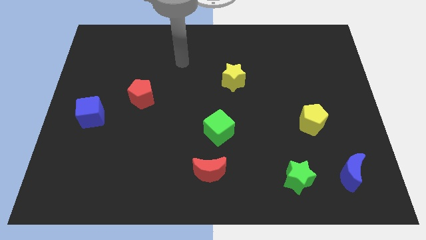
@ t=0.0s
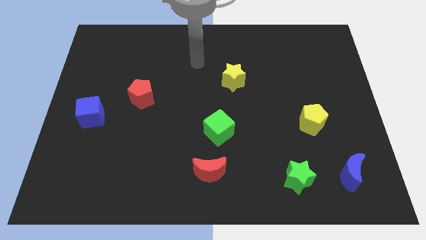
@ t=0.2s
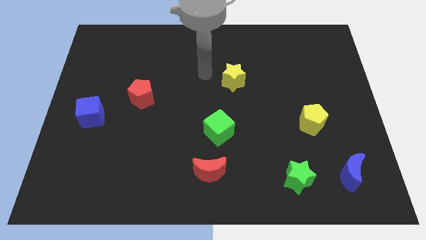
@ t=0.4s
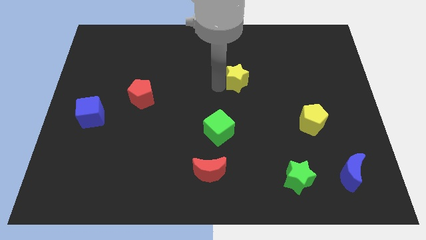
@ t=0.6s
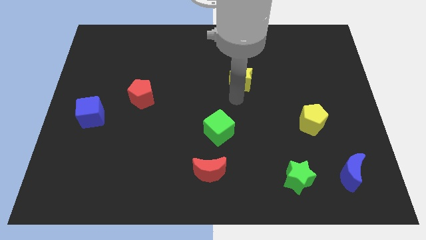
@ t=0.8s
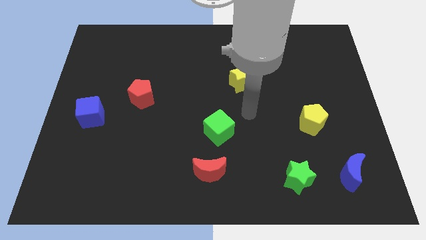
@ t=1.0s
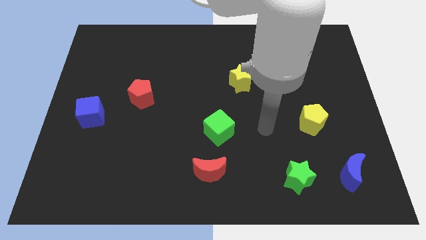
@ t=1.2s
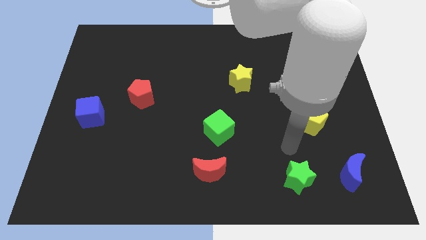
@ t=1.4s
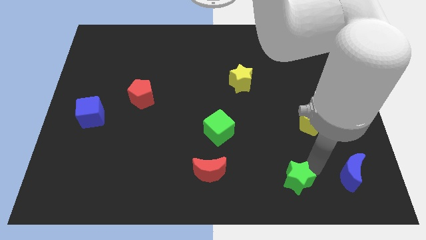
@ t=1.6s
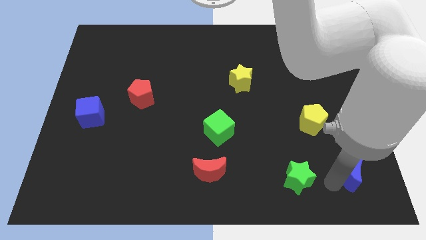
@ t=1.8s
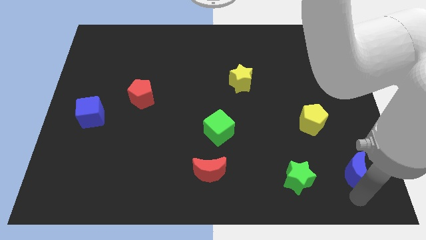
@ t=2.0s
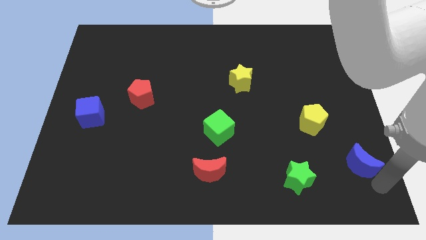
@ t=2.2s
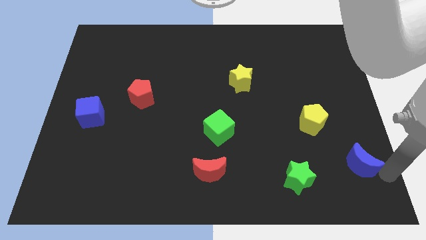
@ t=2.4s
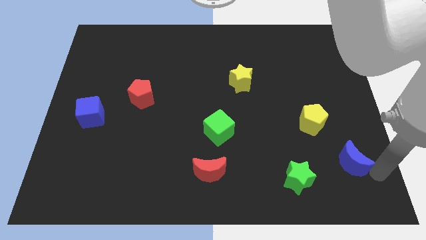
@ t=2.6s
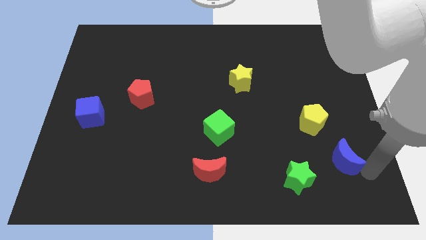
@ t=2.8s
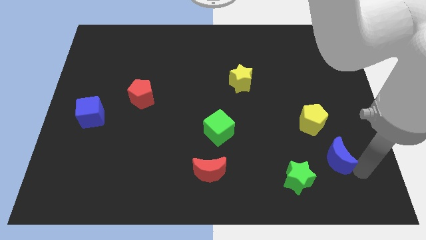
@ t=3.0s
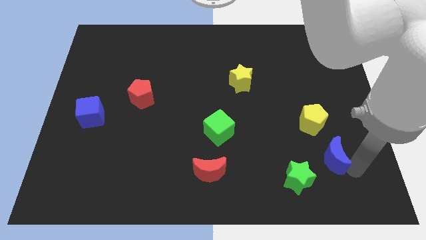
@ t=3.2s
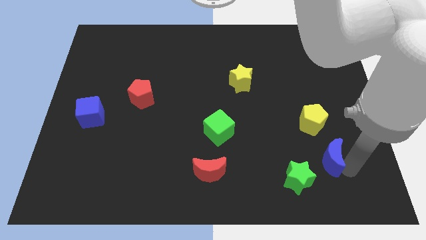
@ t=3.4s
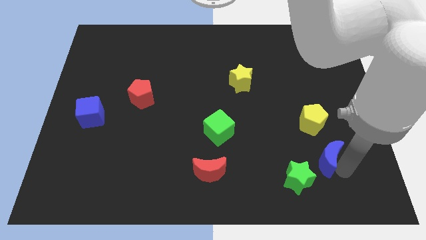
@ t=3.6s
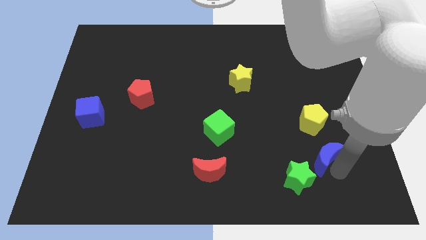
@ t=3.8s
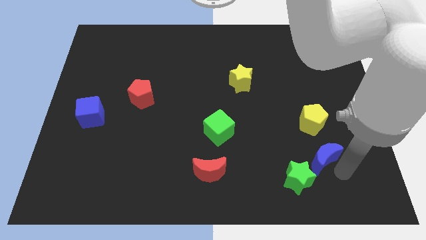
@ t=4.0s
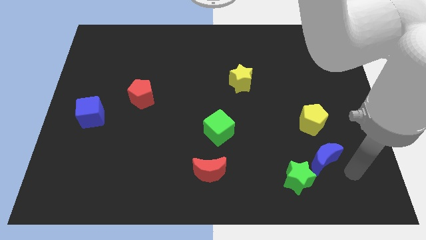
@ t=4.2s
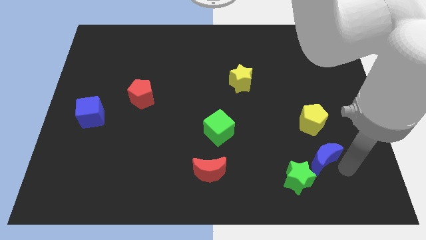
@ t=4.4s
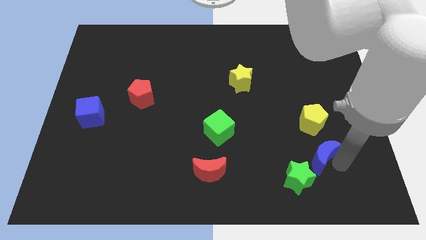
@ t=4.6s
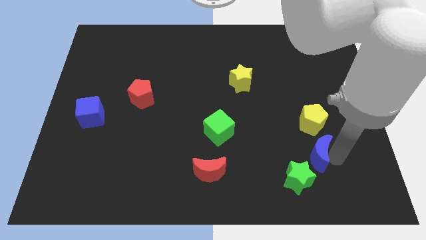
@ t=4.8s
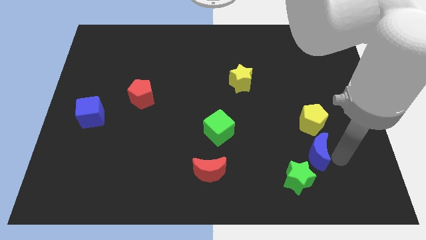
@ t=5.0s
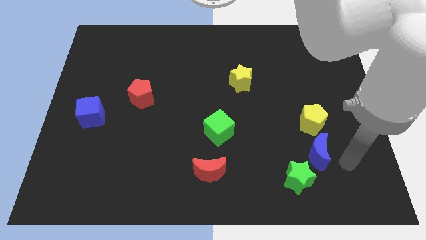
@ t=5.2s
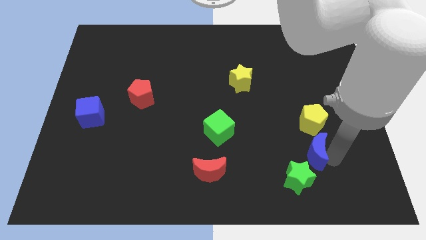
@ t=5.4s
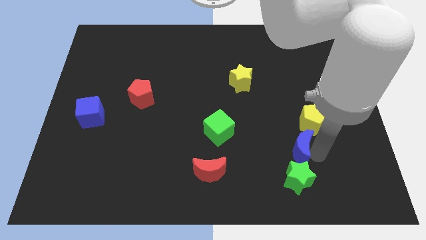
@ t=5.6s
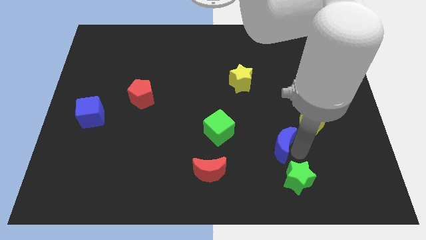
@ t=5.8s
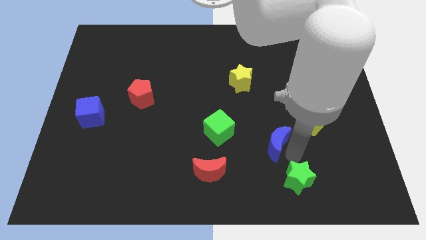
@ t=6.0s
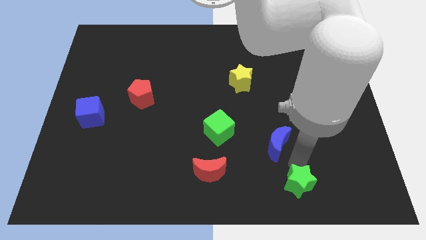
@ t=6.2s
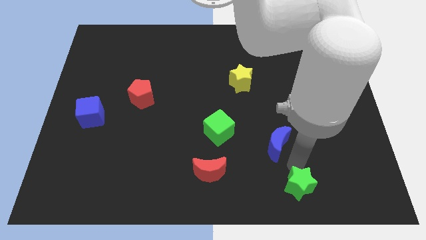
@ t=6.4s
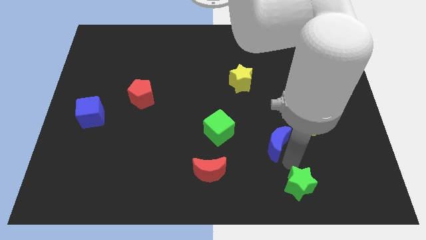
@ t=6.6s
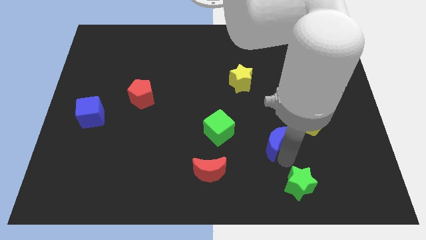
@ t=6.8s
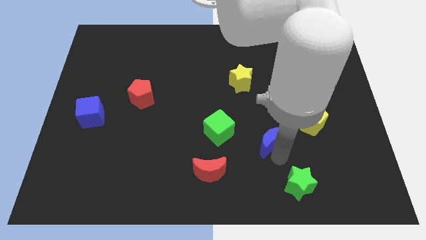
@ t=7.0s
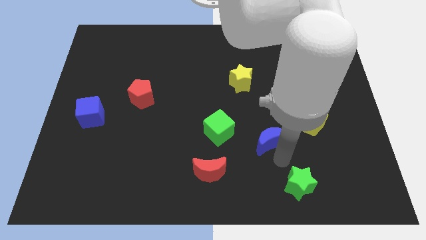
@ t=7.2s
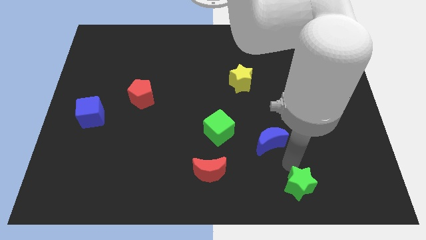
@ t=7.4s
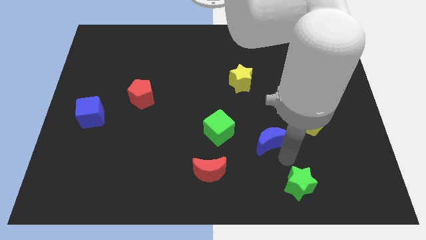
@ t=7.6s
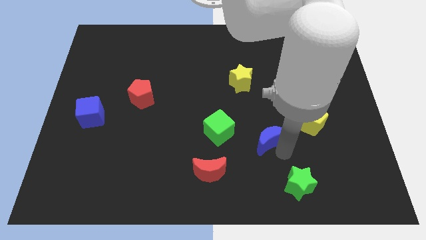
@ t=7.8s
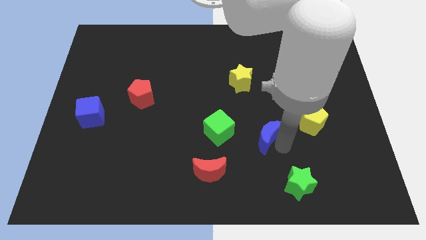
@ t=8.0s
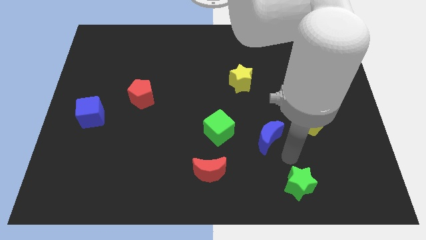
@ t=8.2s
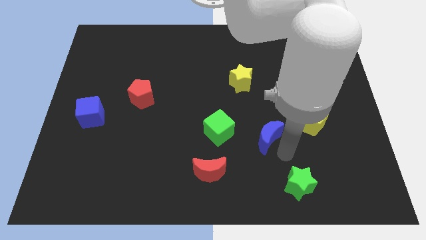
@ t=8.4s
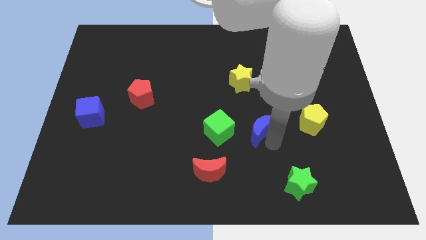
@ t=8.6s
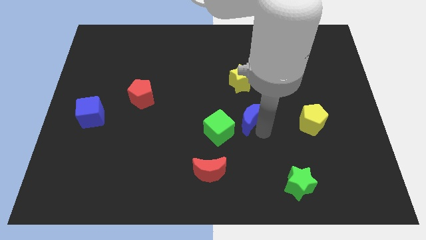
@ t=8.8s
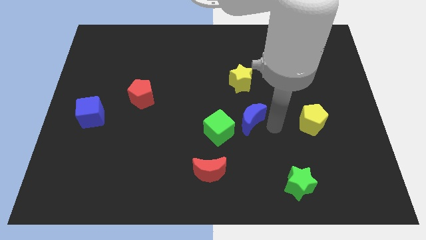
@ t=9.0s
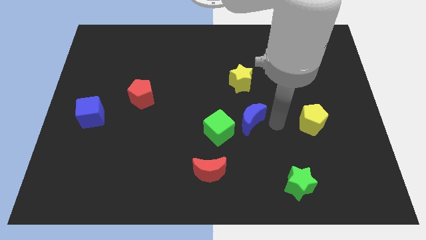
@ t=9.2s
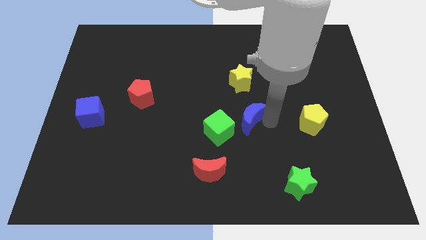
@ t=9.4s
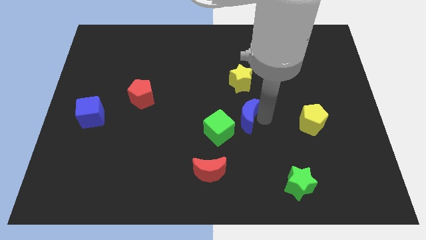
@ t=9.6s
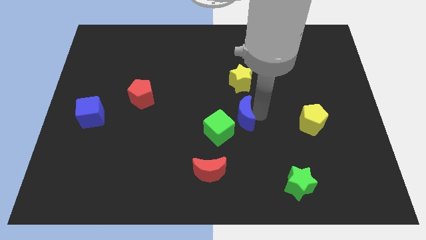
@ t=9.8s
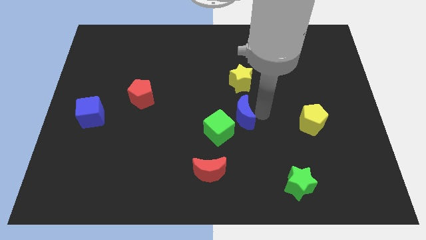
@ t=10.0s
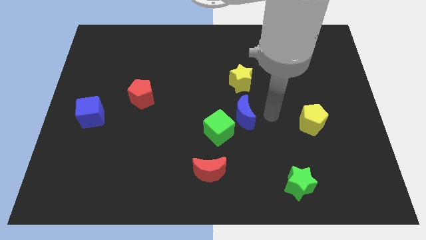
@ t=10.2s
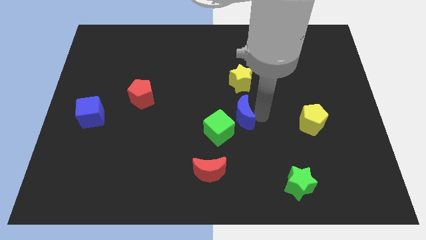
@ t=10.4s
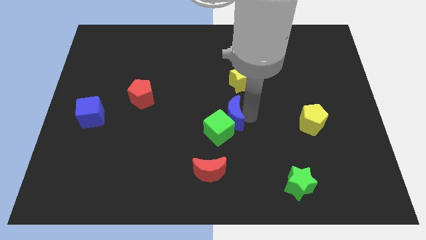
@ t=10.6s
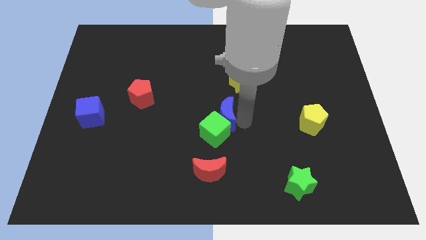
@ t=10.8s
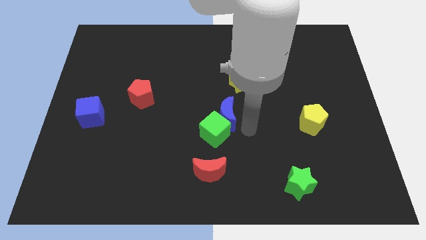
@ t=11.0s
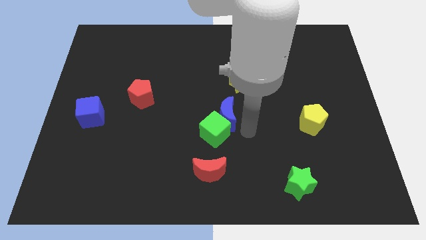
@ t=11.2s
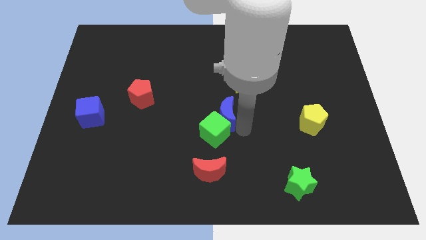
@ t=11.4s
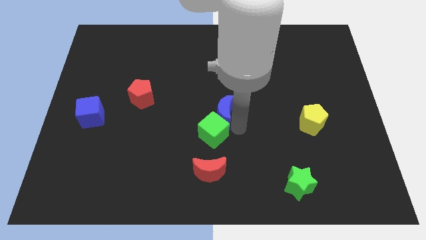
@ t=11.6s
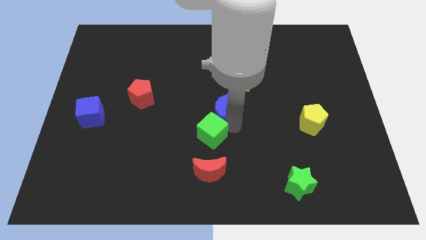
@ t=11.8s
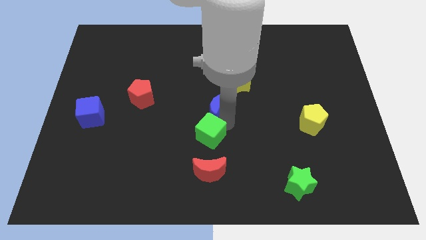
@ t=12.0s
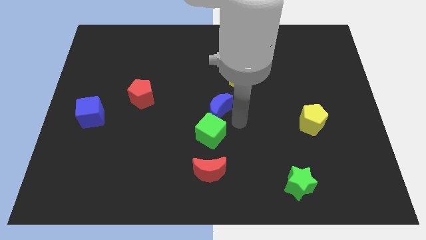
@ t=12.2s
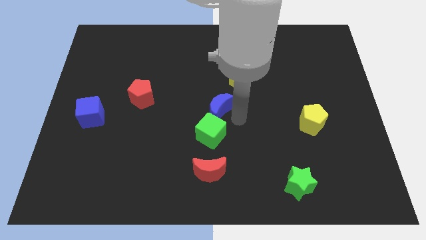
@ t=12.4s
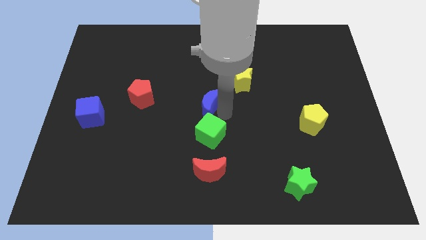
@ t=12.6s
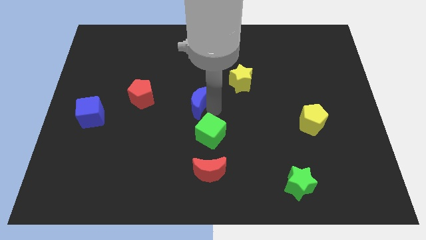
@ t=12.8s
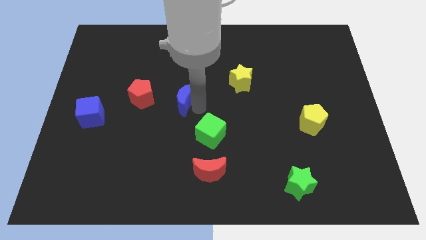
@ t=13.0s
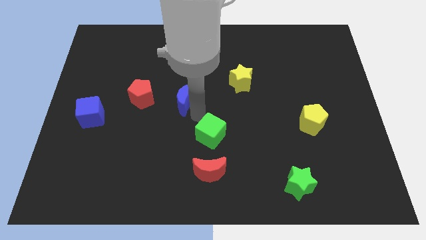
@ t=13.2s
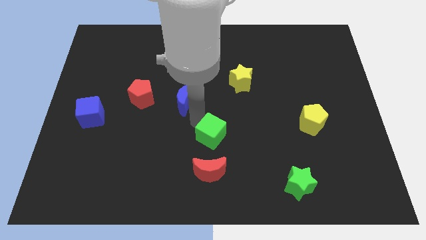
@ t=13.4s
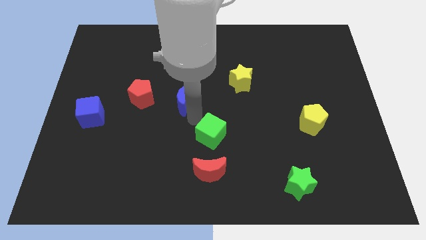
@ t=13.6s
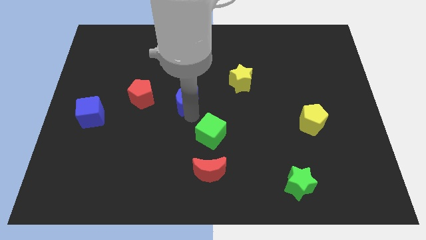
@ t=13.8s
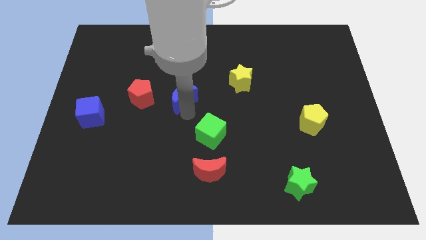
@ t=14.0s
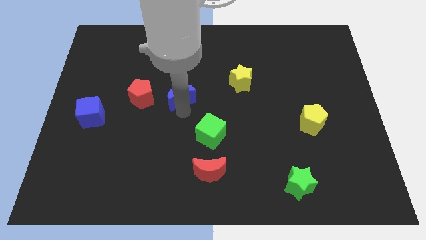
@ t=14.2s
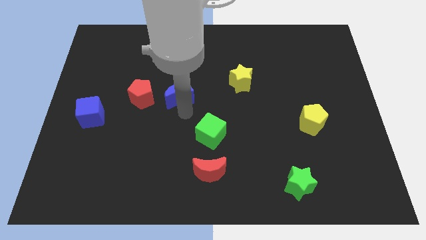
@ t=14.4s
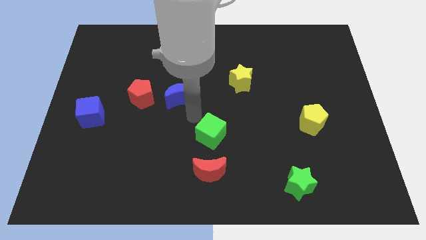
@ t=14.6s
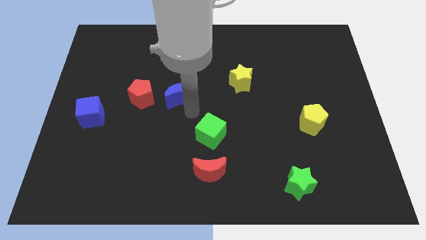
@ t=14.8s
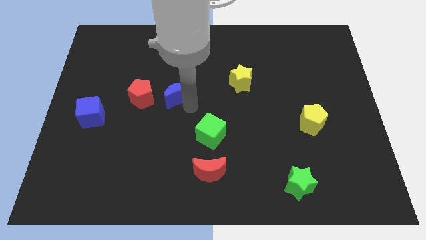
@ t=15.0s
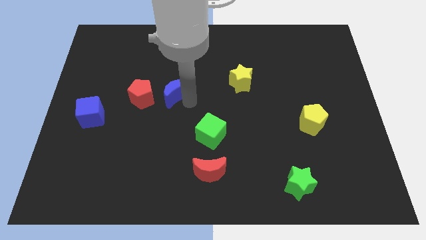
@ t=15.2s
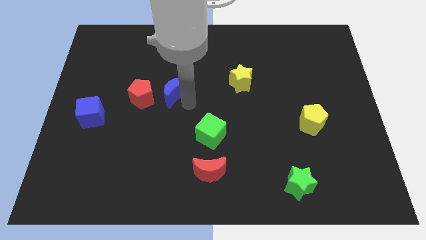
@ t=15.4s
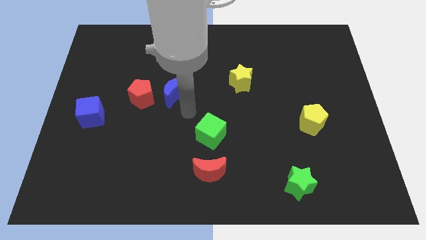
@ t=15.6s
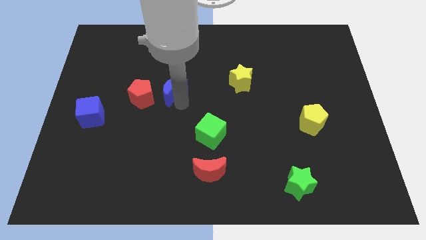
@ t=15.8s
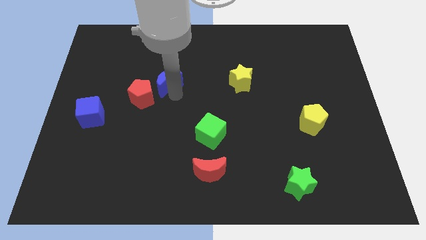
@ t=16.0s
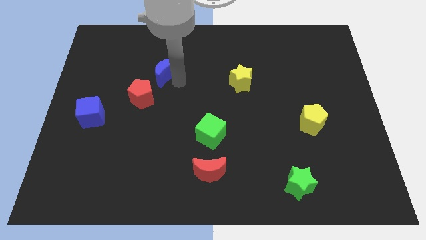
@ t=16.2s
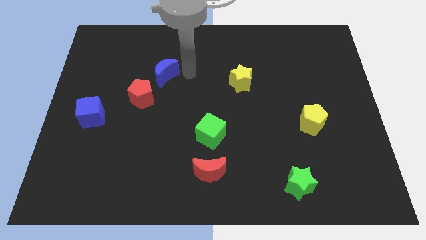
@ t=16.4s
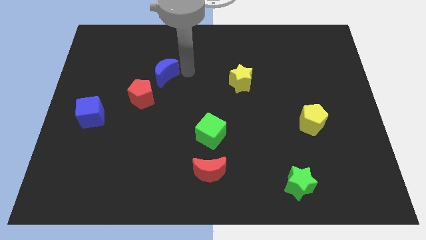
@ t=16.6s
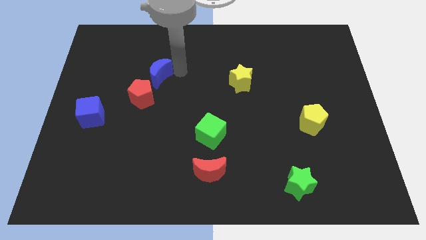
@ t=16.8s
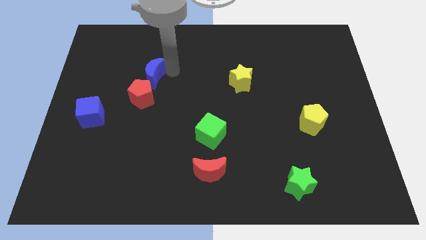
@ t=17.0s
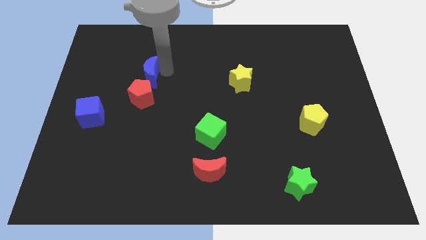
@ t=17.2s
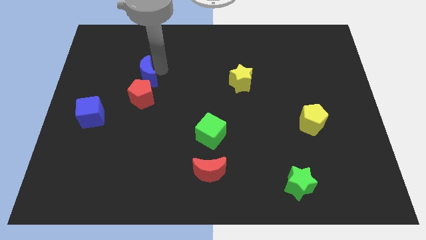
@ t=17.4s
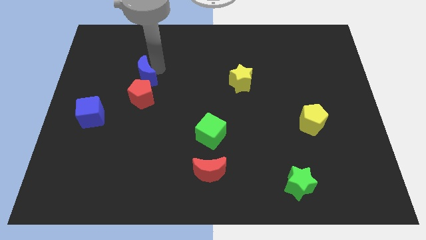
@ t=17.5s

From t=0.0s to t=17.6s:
push the blue moon diagonally up and to the left of the red pentagon
